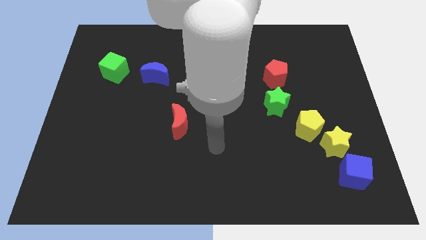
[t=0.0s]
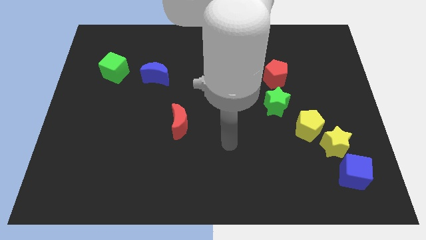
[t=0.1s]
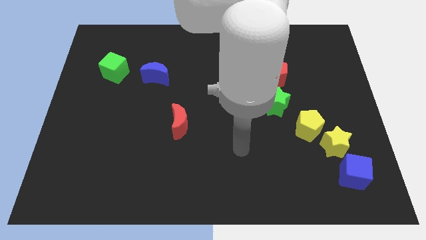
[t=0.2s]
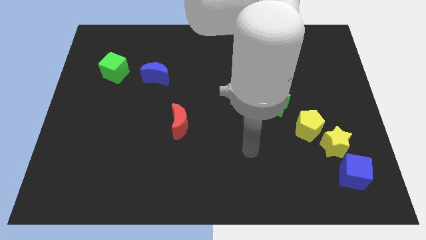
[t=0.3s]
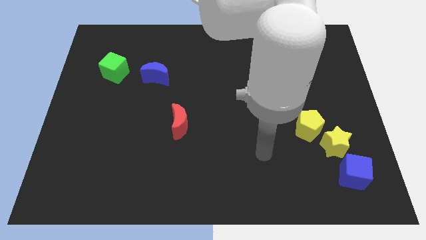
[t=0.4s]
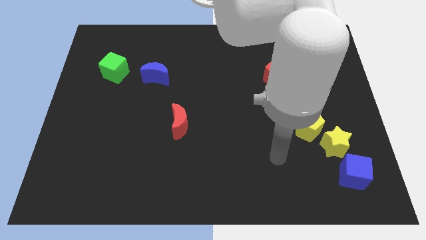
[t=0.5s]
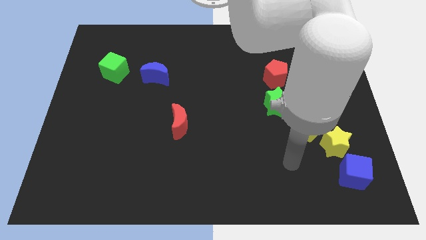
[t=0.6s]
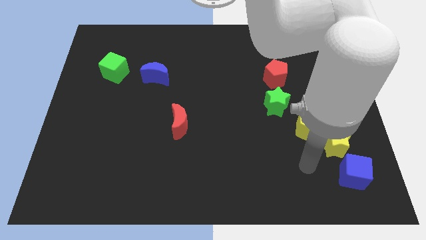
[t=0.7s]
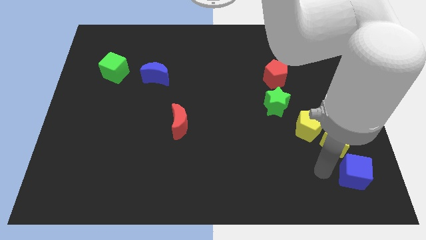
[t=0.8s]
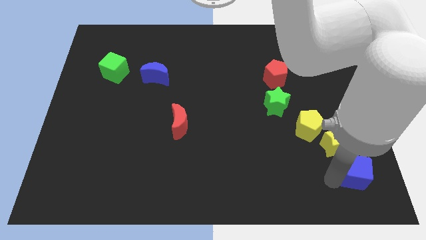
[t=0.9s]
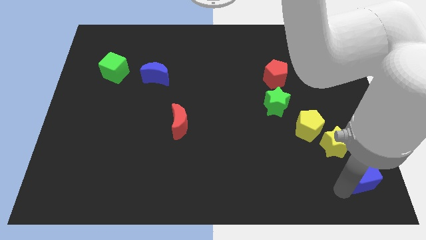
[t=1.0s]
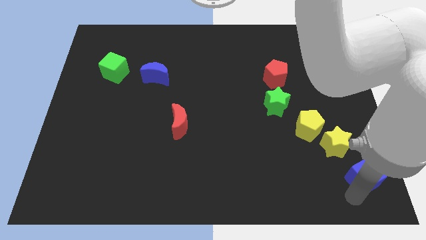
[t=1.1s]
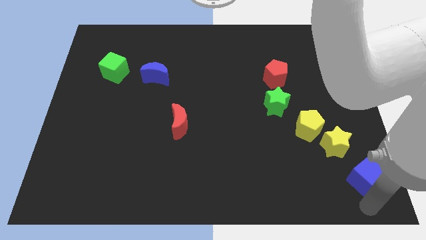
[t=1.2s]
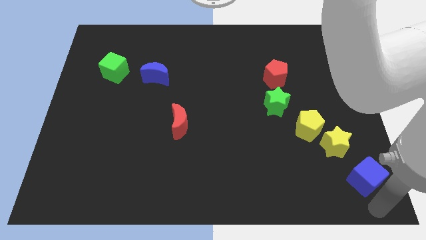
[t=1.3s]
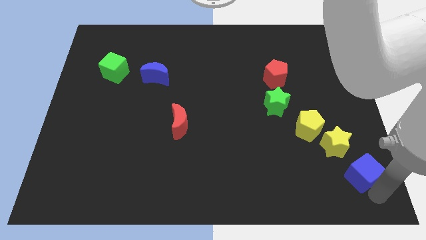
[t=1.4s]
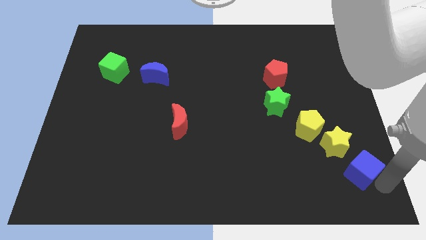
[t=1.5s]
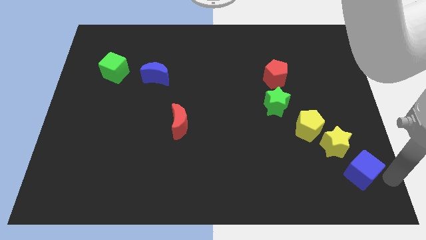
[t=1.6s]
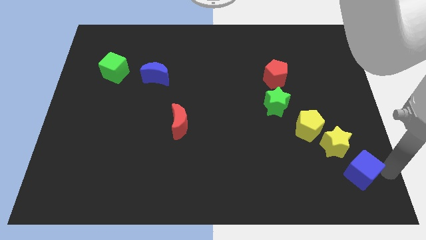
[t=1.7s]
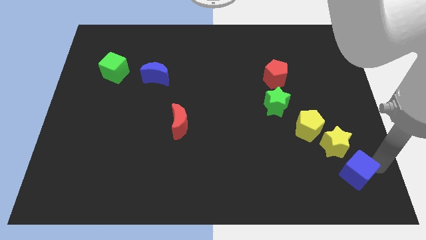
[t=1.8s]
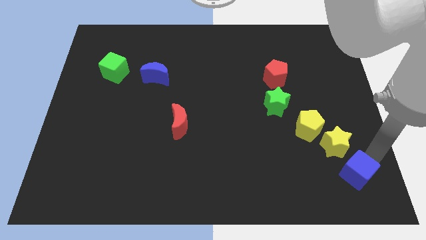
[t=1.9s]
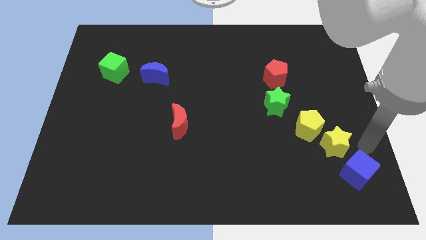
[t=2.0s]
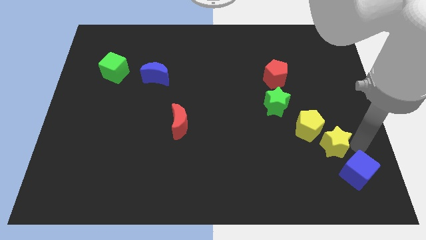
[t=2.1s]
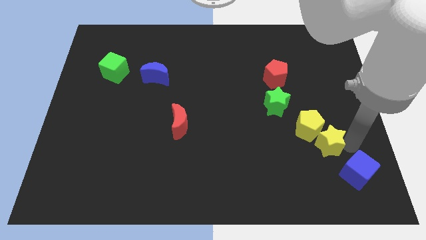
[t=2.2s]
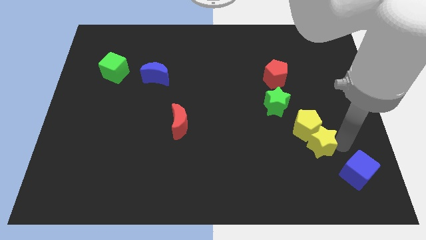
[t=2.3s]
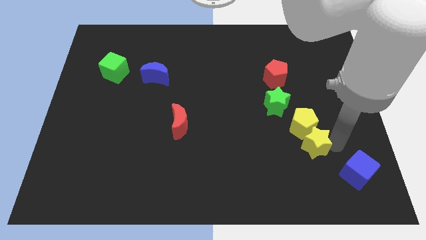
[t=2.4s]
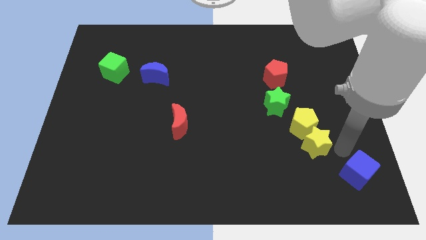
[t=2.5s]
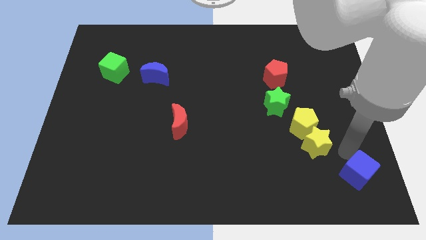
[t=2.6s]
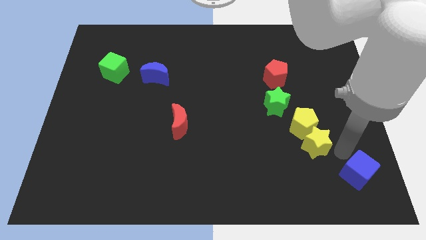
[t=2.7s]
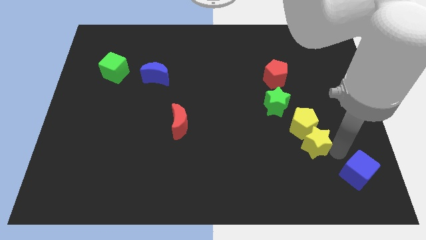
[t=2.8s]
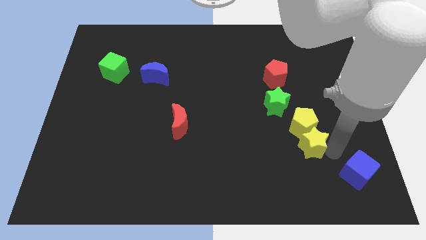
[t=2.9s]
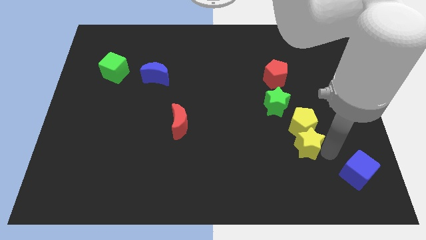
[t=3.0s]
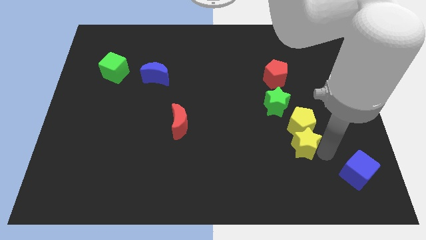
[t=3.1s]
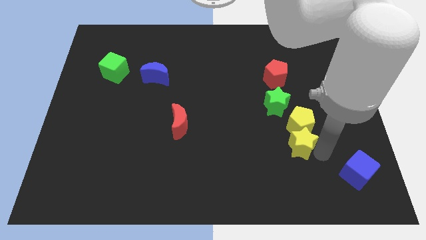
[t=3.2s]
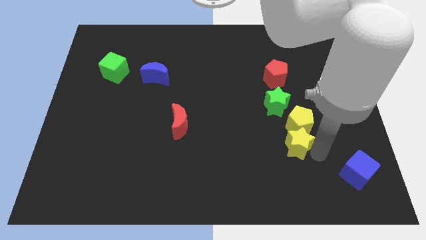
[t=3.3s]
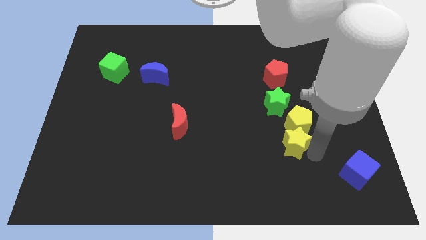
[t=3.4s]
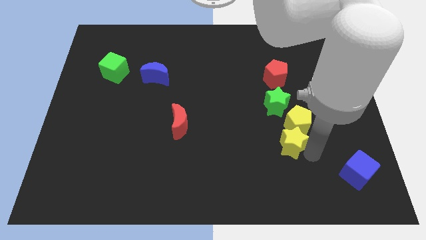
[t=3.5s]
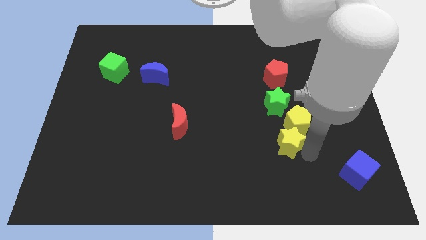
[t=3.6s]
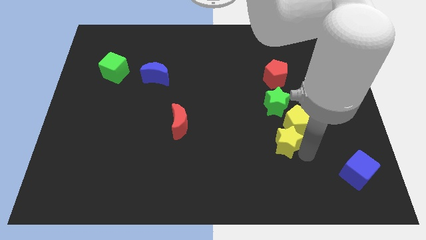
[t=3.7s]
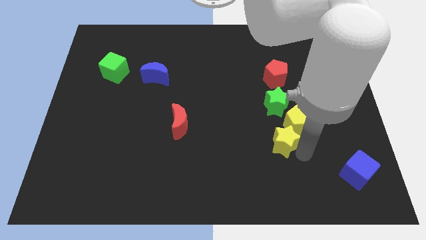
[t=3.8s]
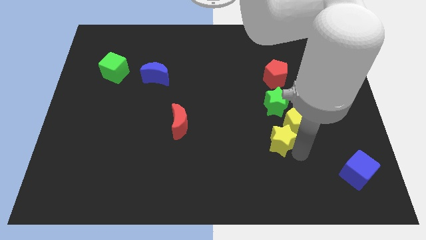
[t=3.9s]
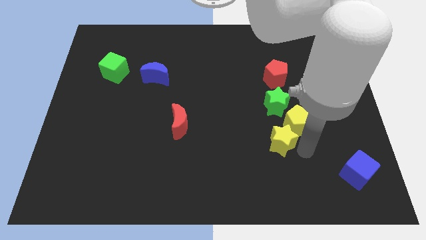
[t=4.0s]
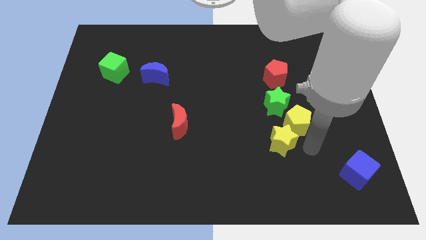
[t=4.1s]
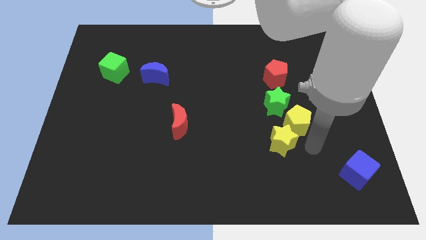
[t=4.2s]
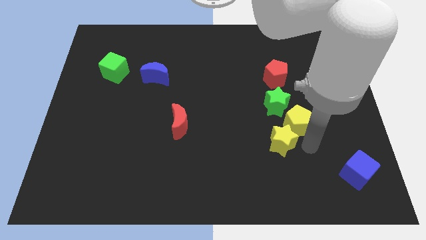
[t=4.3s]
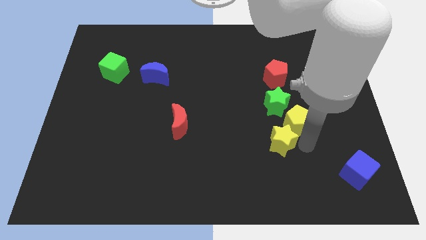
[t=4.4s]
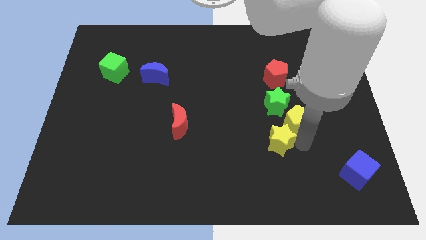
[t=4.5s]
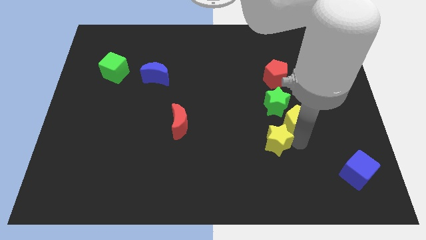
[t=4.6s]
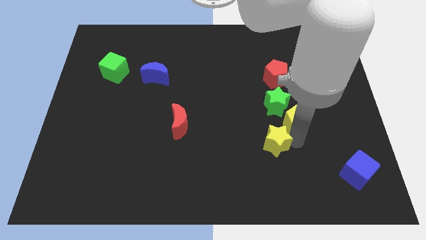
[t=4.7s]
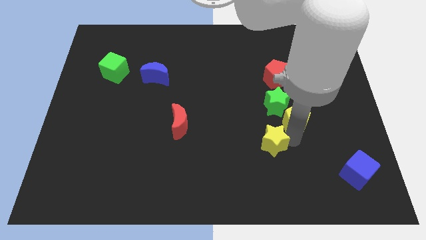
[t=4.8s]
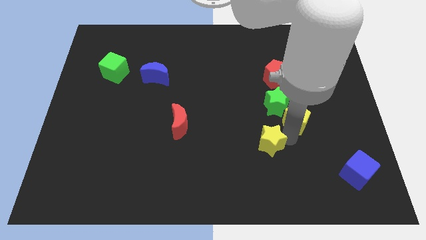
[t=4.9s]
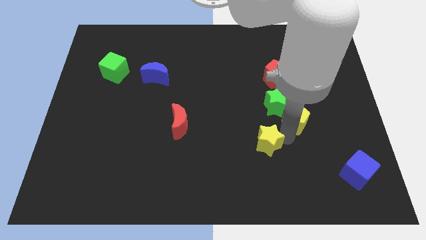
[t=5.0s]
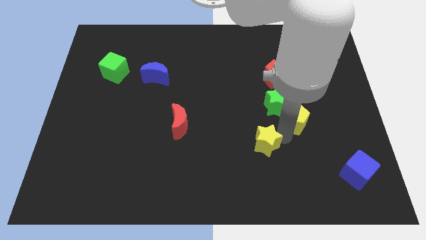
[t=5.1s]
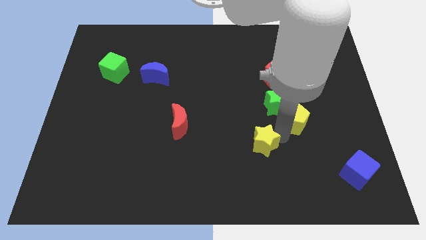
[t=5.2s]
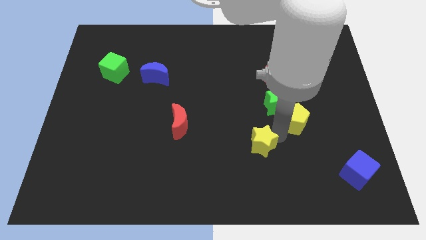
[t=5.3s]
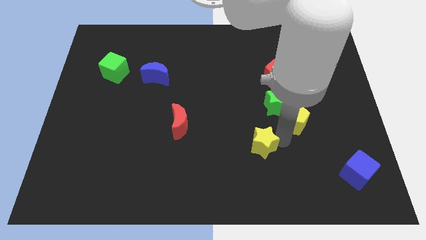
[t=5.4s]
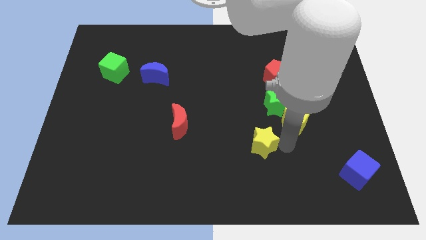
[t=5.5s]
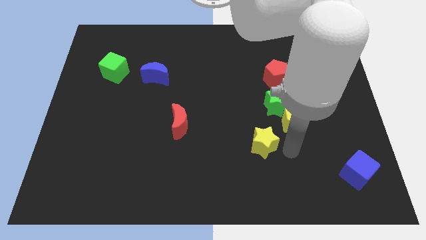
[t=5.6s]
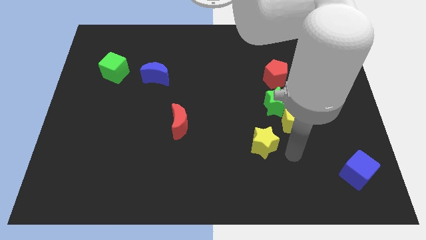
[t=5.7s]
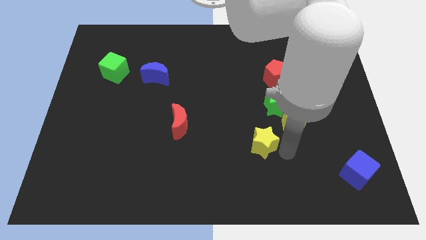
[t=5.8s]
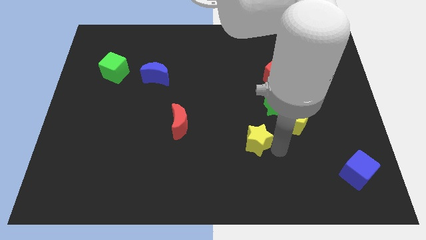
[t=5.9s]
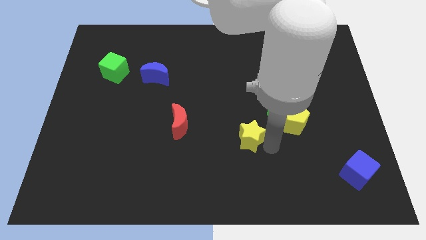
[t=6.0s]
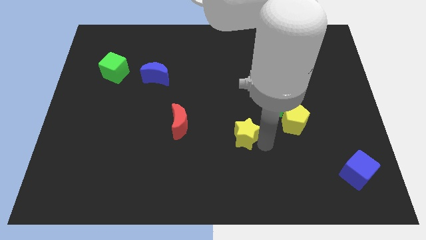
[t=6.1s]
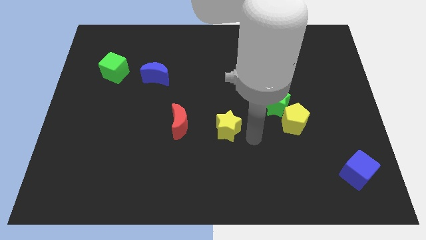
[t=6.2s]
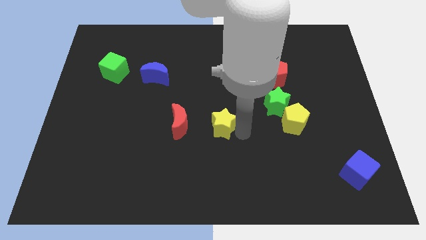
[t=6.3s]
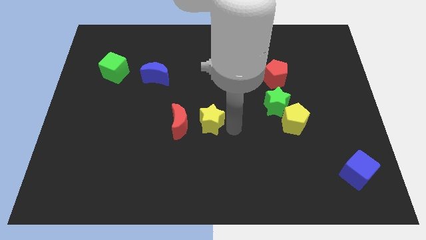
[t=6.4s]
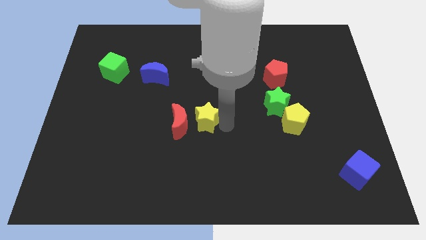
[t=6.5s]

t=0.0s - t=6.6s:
slide the yellow star close to the red moon

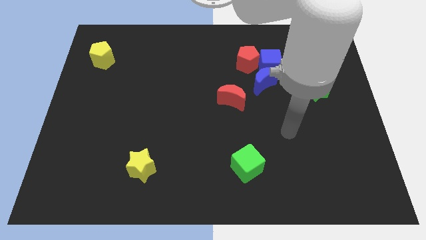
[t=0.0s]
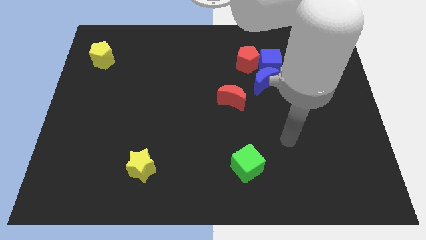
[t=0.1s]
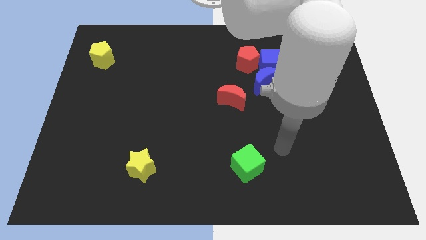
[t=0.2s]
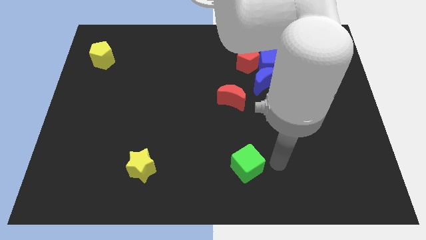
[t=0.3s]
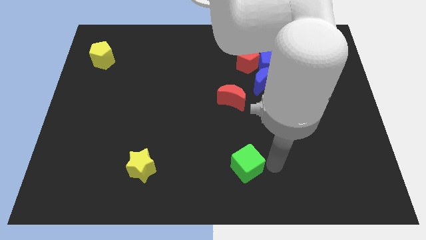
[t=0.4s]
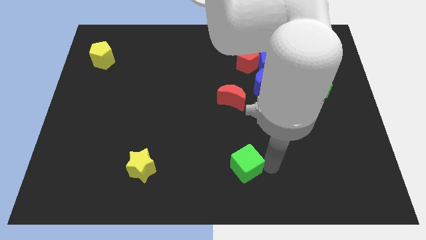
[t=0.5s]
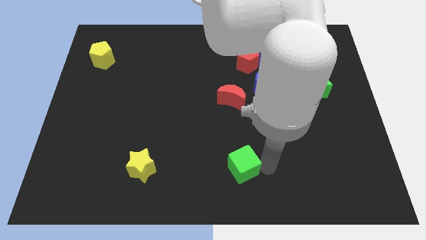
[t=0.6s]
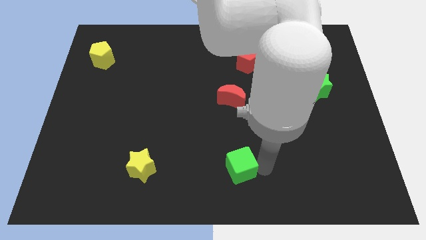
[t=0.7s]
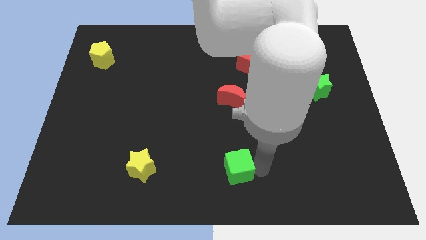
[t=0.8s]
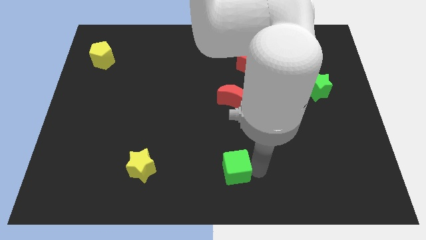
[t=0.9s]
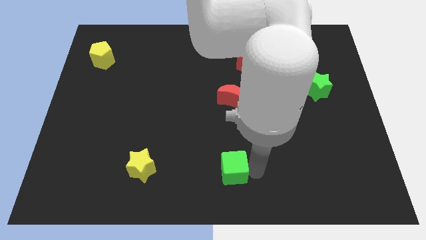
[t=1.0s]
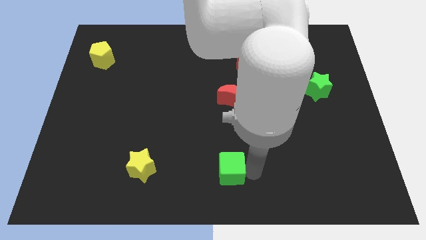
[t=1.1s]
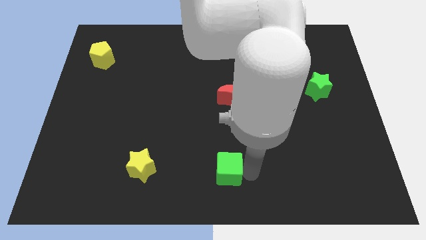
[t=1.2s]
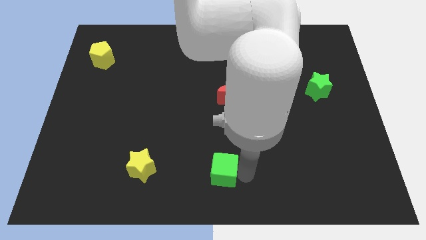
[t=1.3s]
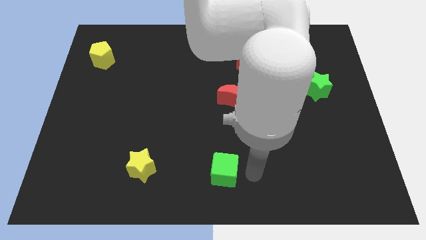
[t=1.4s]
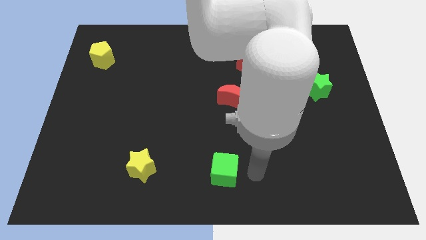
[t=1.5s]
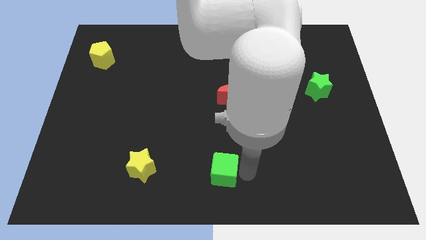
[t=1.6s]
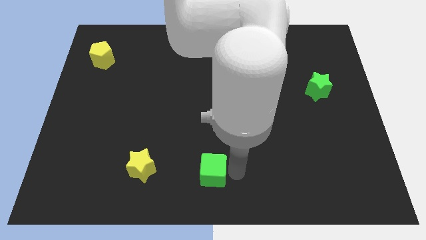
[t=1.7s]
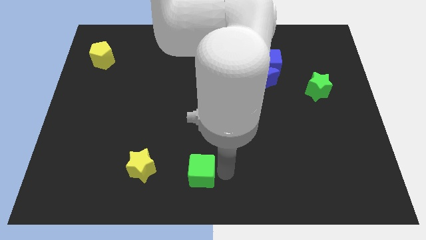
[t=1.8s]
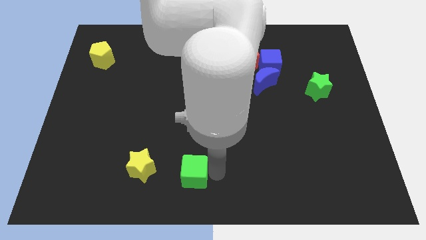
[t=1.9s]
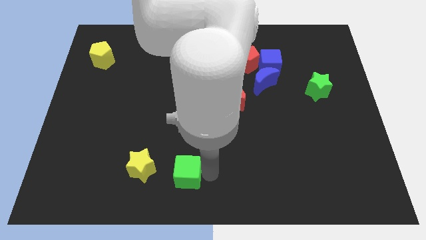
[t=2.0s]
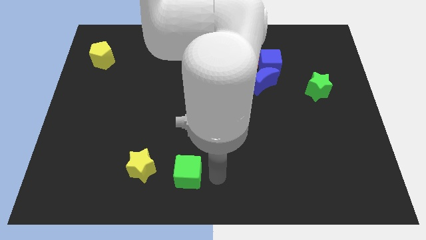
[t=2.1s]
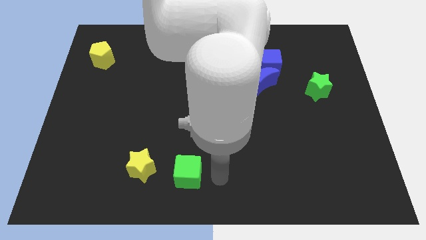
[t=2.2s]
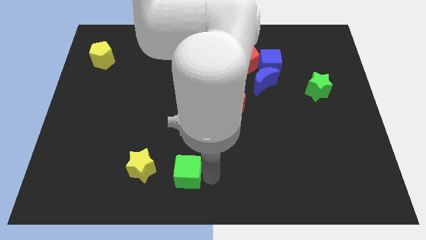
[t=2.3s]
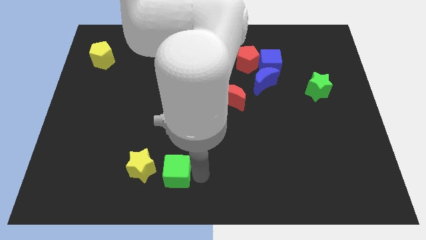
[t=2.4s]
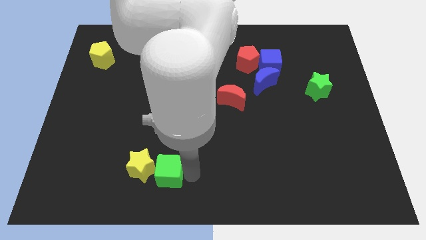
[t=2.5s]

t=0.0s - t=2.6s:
push the green cube to the yellow star
